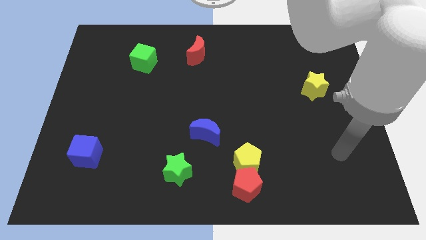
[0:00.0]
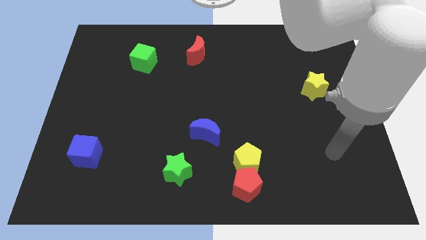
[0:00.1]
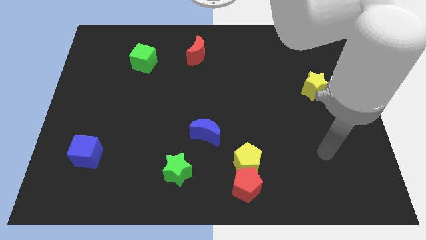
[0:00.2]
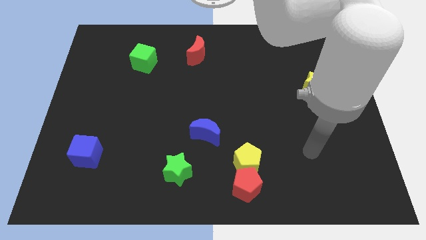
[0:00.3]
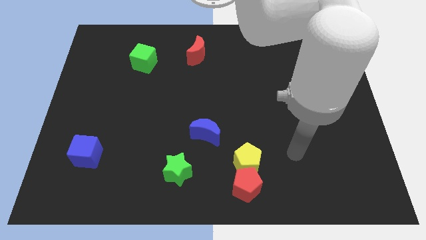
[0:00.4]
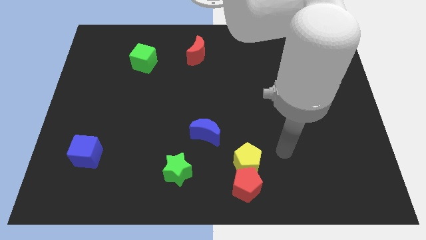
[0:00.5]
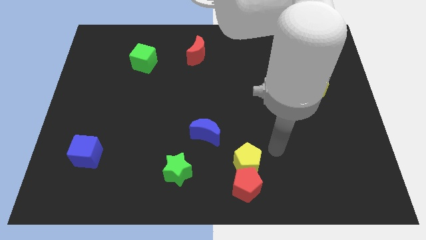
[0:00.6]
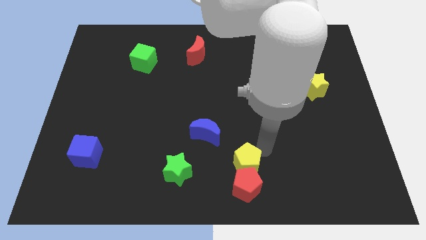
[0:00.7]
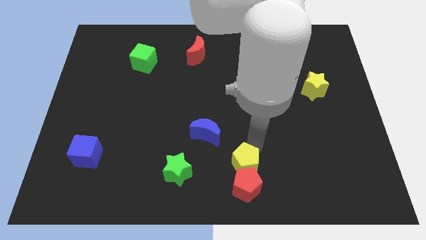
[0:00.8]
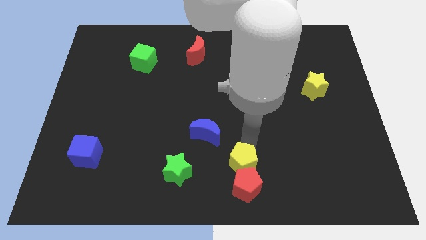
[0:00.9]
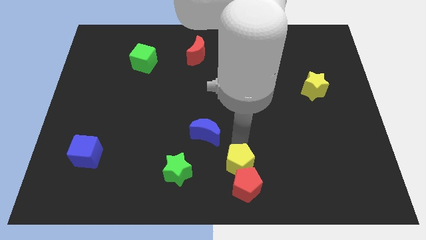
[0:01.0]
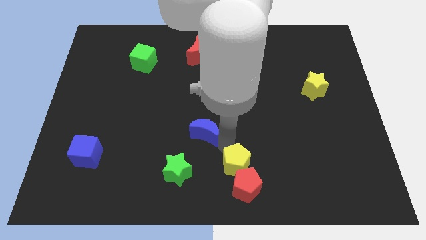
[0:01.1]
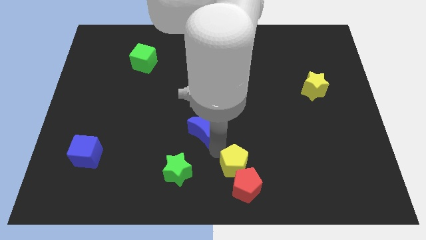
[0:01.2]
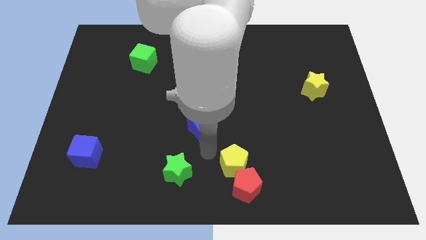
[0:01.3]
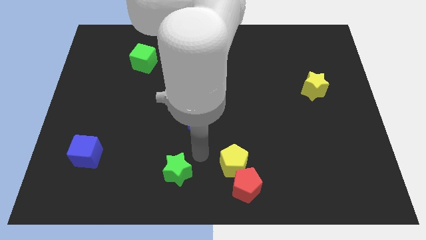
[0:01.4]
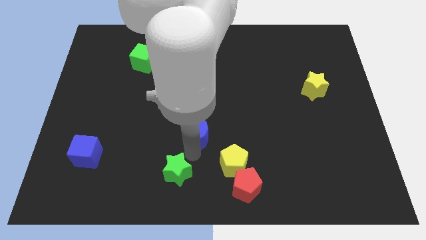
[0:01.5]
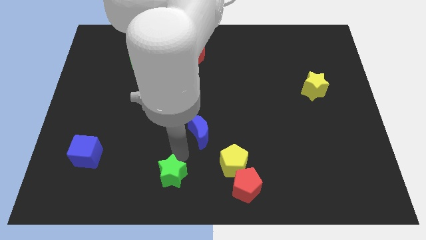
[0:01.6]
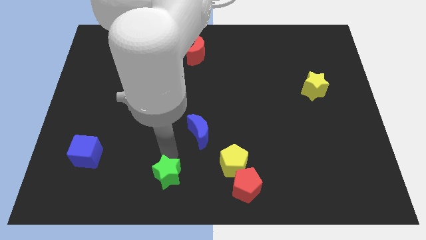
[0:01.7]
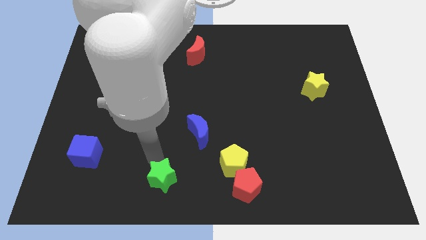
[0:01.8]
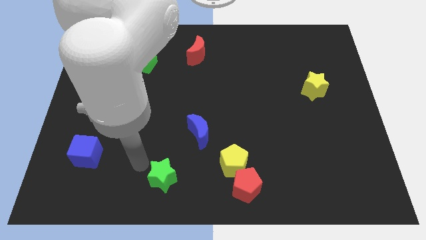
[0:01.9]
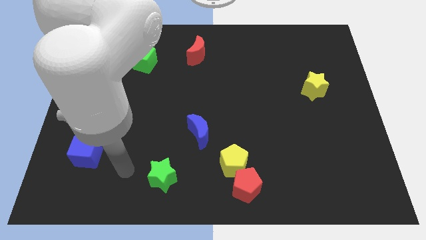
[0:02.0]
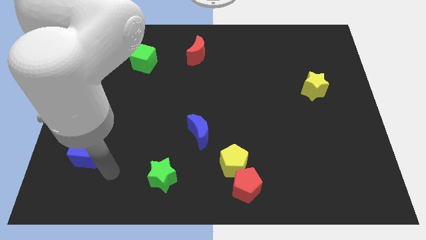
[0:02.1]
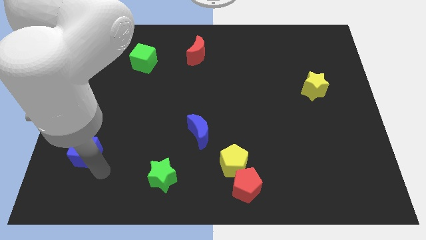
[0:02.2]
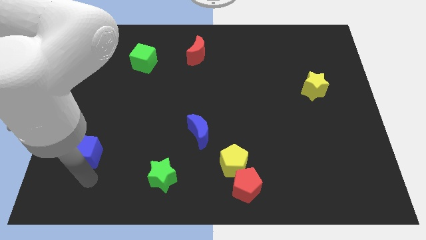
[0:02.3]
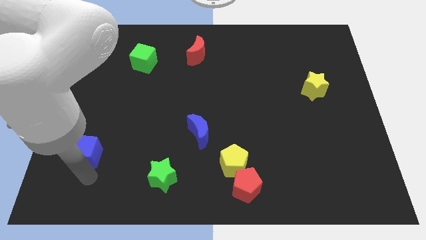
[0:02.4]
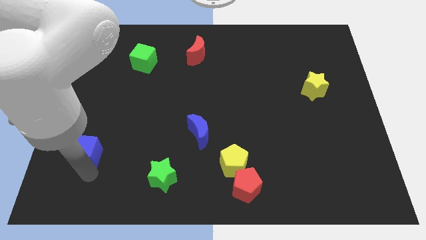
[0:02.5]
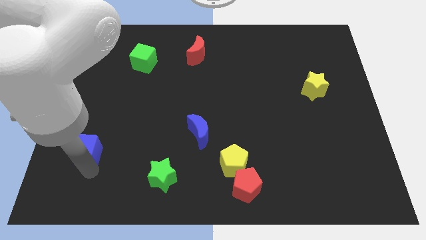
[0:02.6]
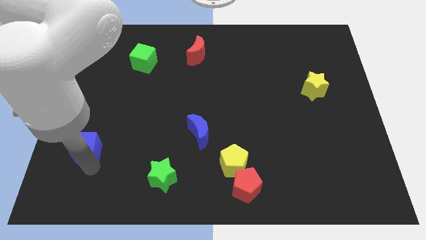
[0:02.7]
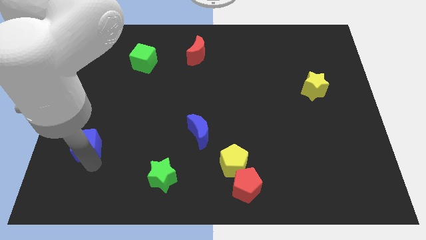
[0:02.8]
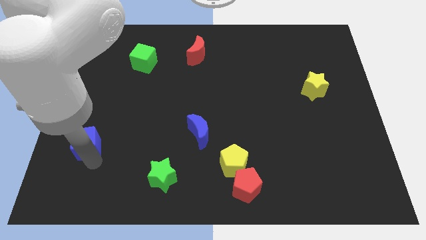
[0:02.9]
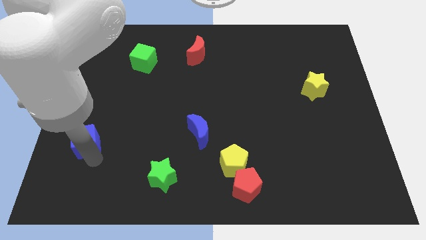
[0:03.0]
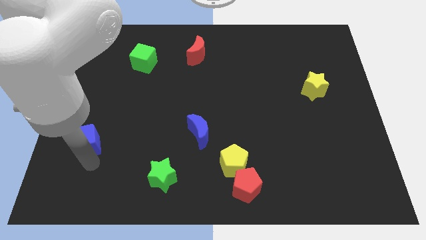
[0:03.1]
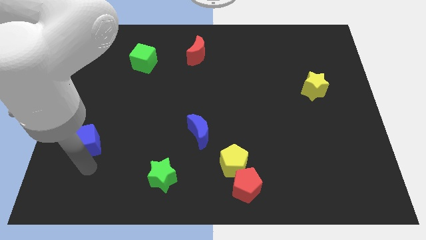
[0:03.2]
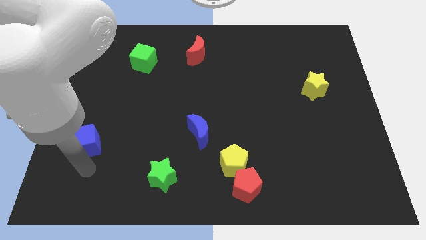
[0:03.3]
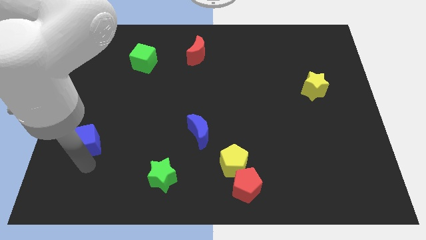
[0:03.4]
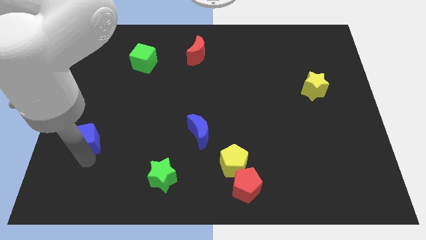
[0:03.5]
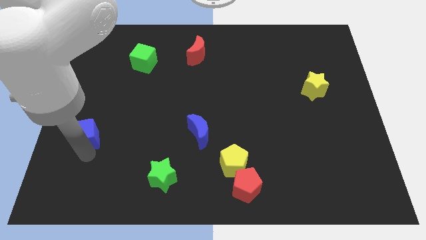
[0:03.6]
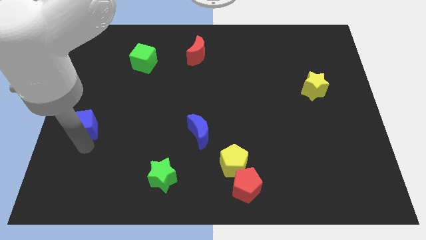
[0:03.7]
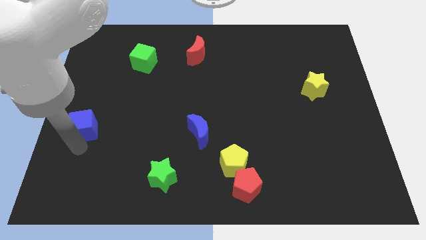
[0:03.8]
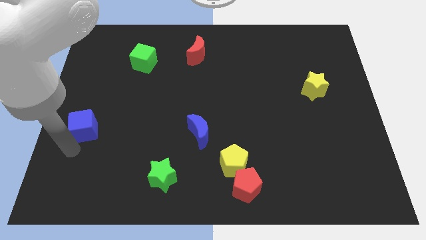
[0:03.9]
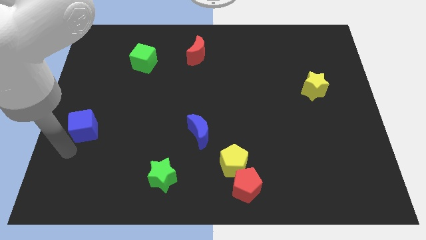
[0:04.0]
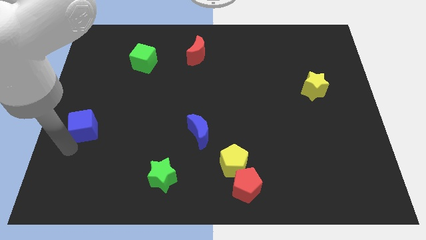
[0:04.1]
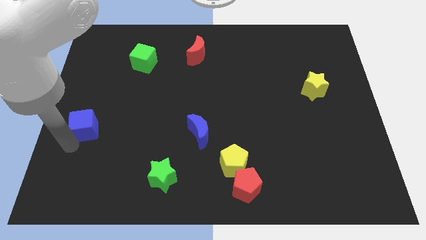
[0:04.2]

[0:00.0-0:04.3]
move the blue cube a bit upwards

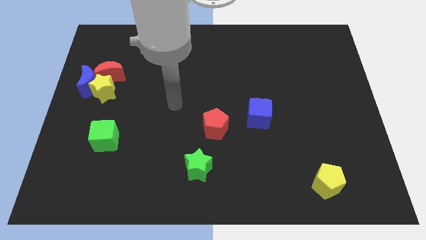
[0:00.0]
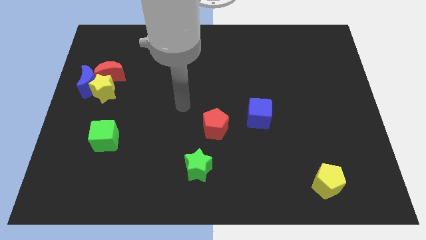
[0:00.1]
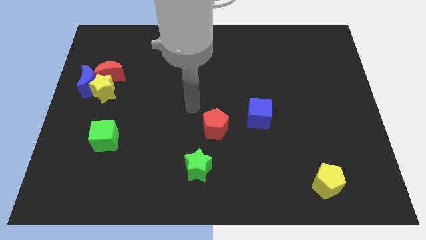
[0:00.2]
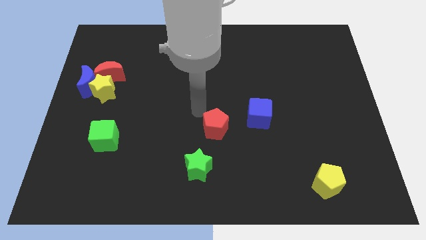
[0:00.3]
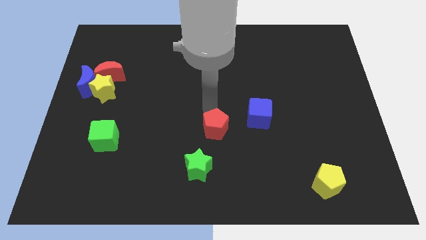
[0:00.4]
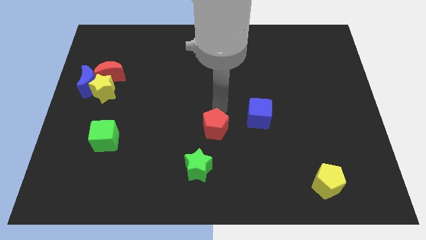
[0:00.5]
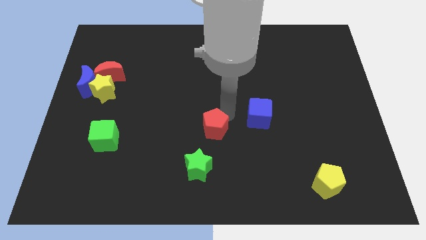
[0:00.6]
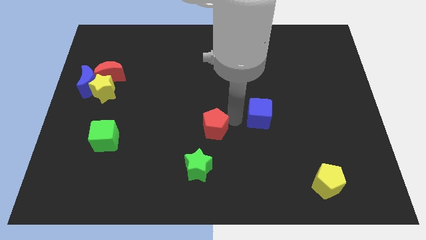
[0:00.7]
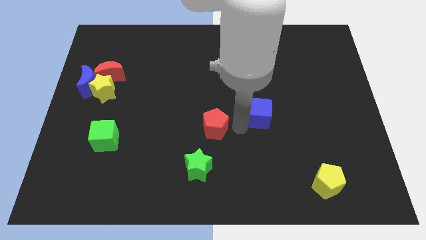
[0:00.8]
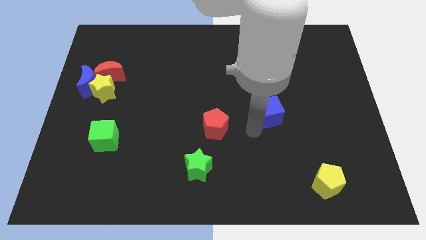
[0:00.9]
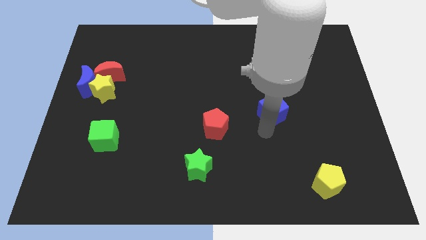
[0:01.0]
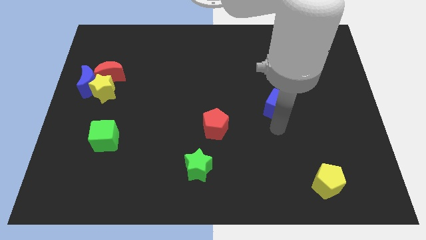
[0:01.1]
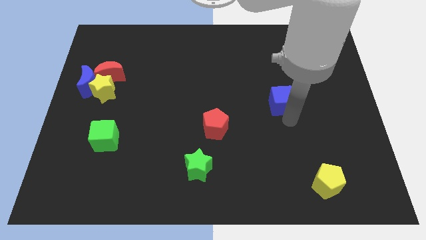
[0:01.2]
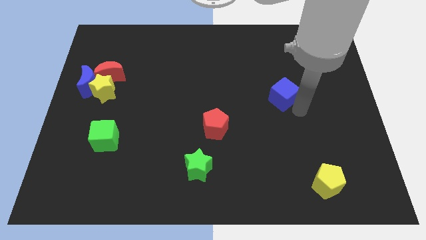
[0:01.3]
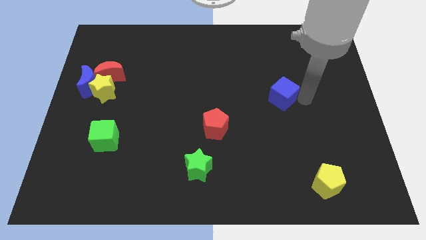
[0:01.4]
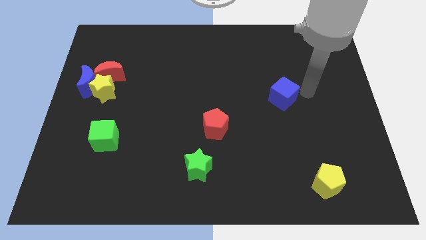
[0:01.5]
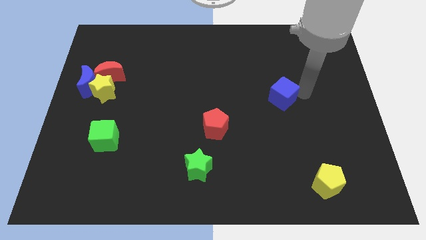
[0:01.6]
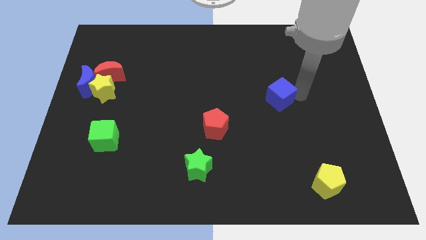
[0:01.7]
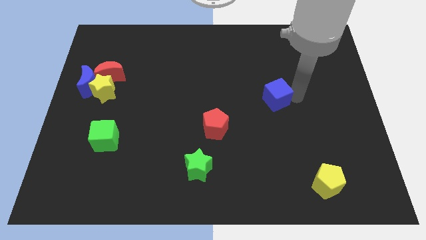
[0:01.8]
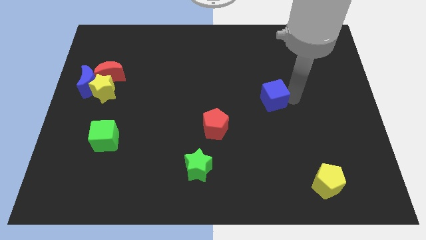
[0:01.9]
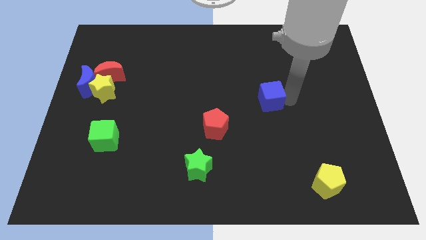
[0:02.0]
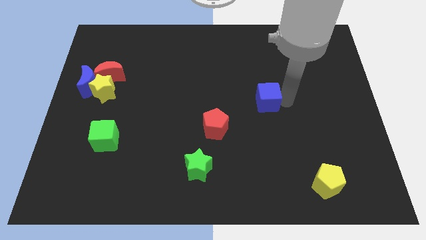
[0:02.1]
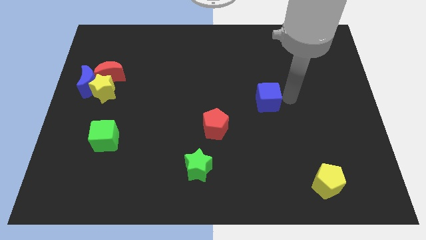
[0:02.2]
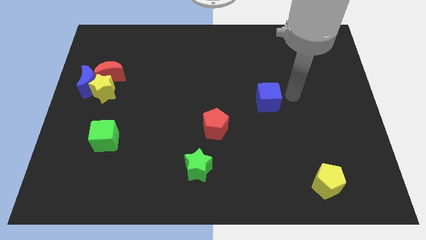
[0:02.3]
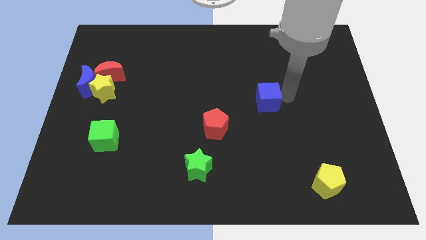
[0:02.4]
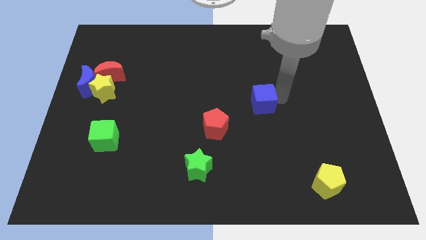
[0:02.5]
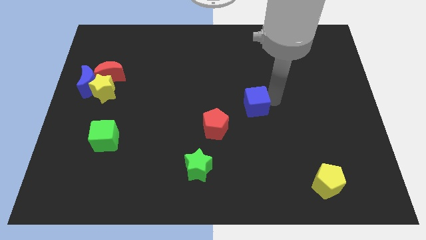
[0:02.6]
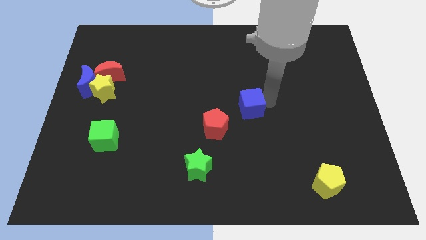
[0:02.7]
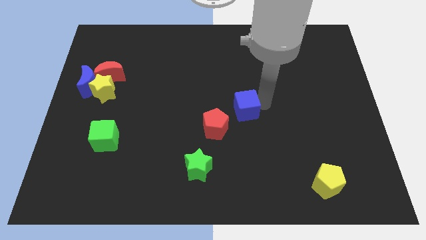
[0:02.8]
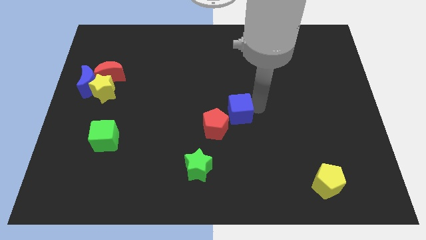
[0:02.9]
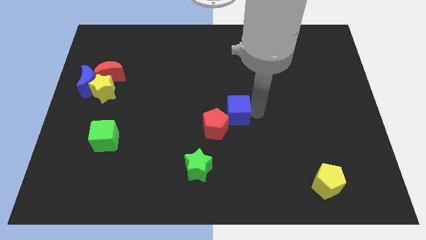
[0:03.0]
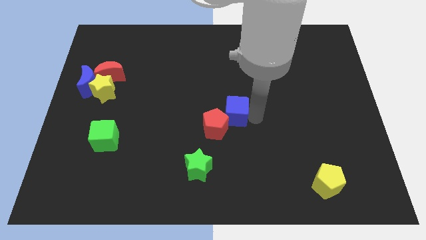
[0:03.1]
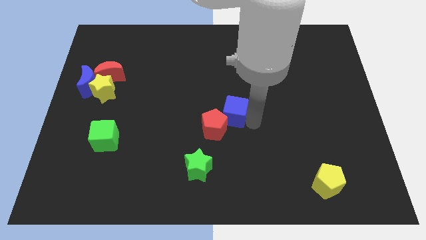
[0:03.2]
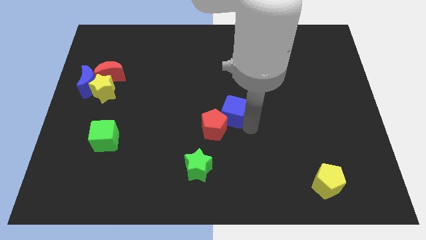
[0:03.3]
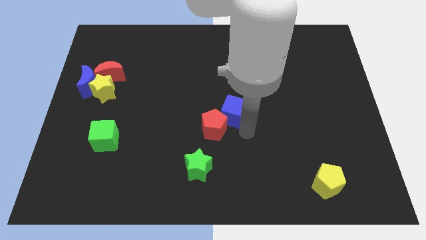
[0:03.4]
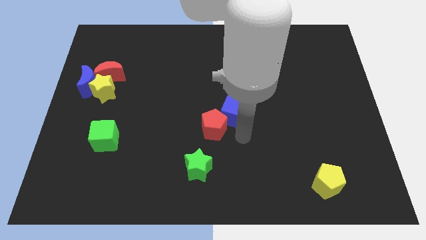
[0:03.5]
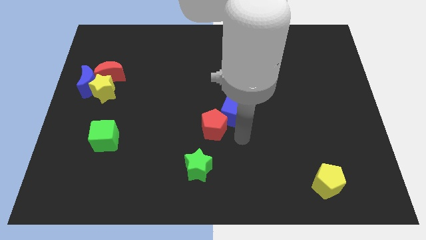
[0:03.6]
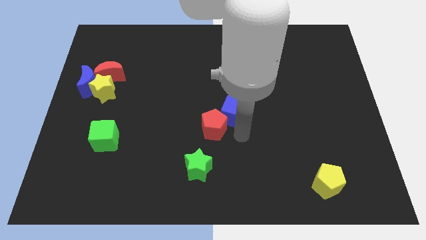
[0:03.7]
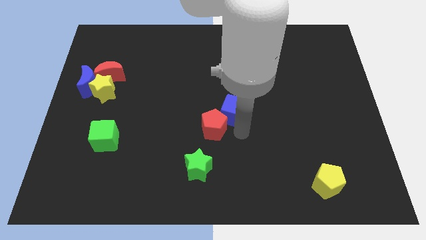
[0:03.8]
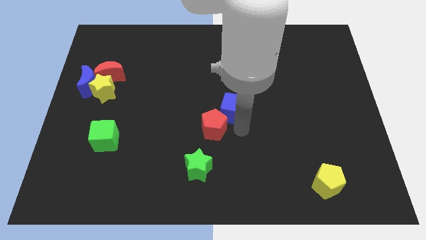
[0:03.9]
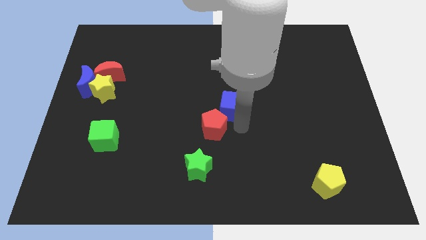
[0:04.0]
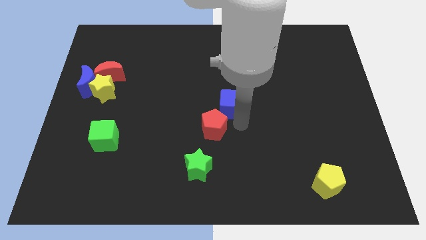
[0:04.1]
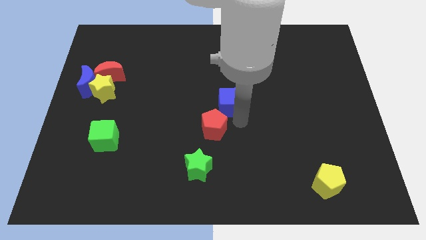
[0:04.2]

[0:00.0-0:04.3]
push the blue cube somewhat diagonally up and left
